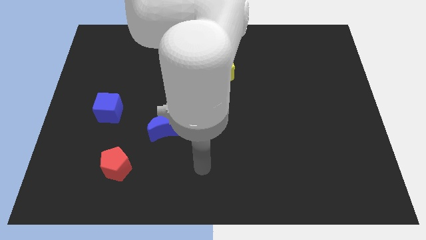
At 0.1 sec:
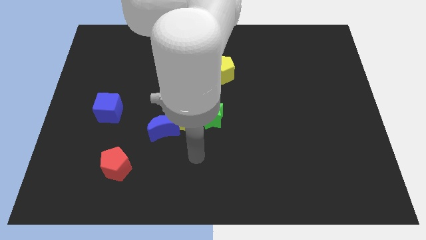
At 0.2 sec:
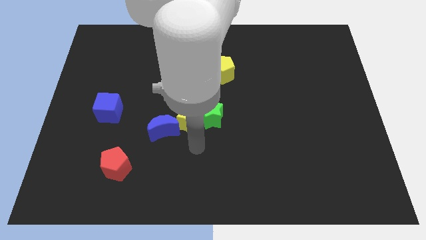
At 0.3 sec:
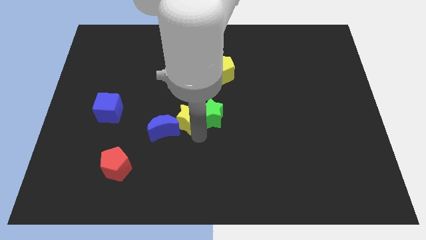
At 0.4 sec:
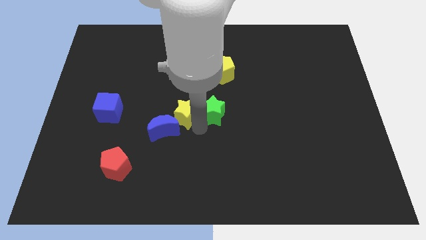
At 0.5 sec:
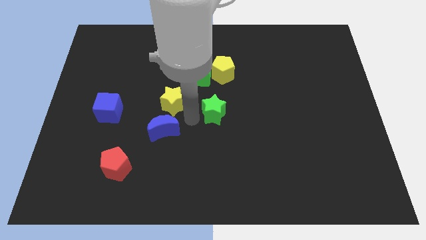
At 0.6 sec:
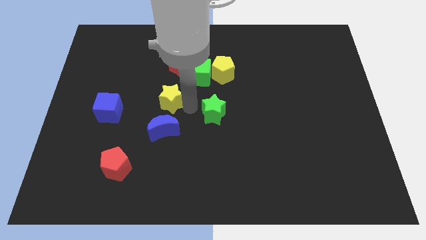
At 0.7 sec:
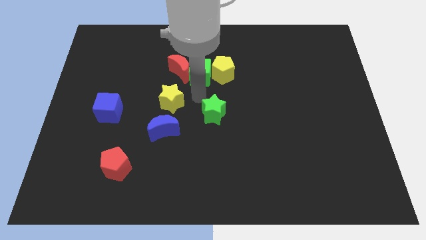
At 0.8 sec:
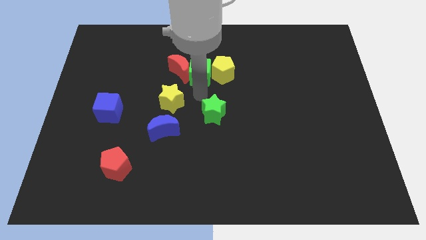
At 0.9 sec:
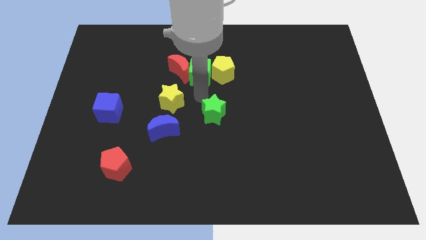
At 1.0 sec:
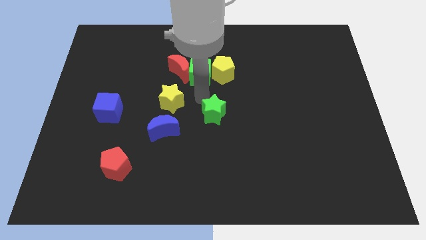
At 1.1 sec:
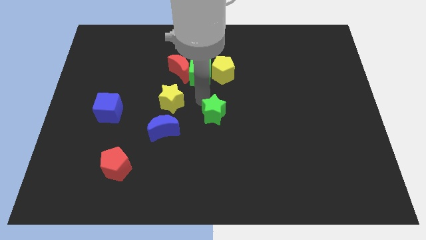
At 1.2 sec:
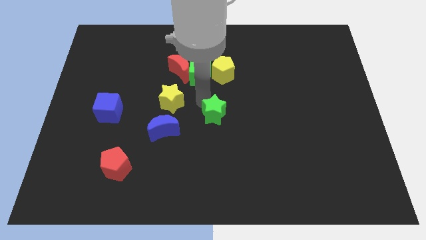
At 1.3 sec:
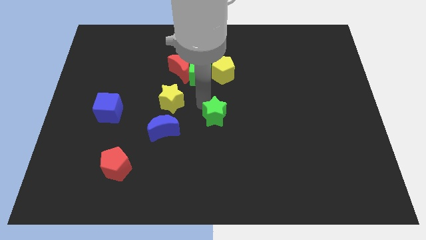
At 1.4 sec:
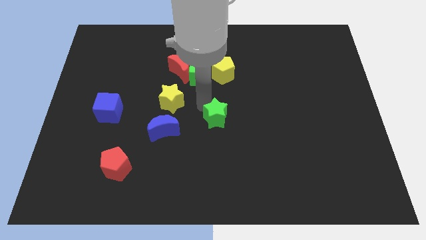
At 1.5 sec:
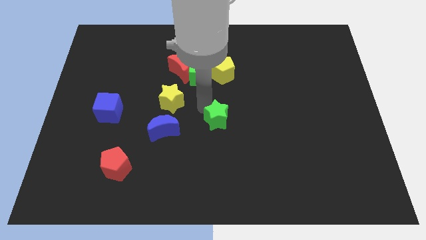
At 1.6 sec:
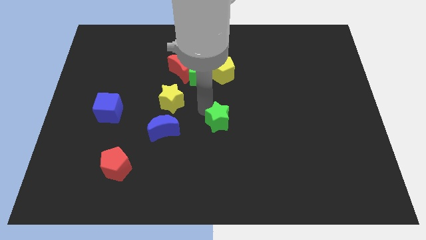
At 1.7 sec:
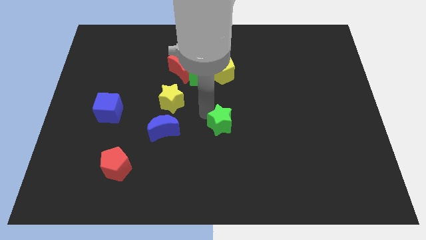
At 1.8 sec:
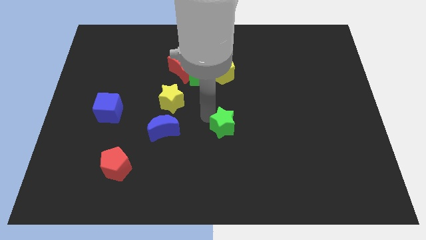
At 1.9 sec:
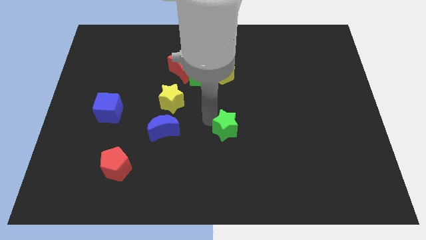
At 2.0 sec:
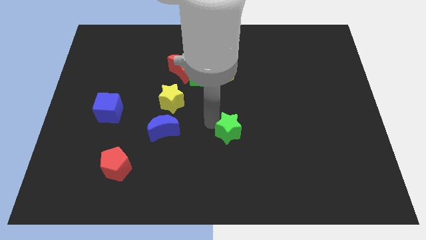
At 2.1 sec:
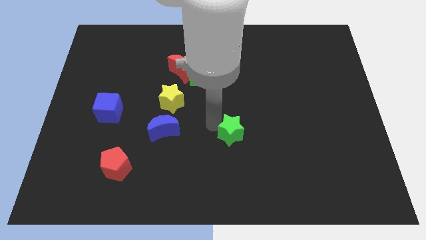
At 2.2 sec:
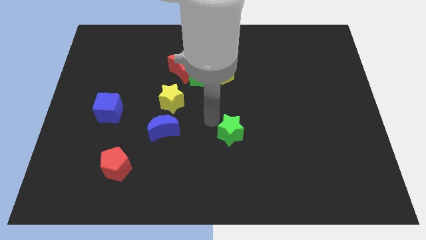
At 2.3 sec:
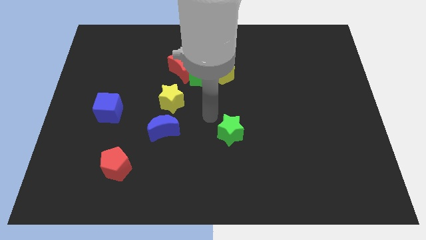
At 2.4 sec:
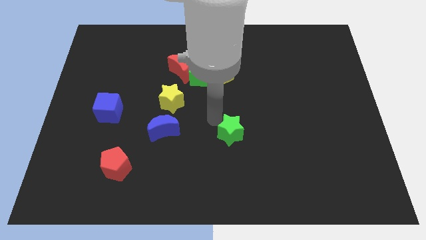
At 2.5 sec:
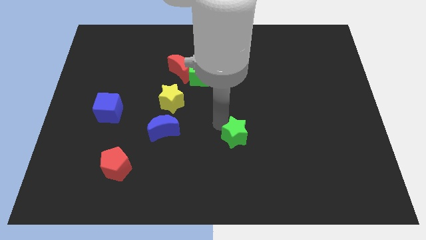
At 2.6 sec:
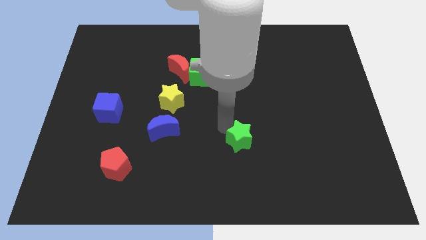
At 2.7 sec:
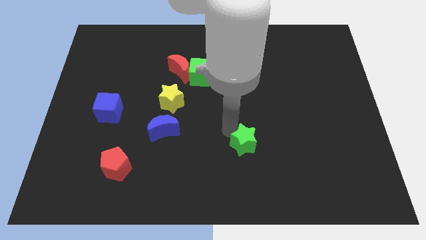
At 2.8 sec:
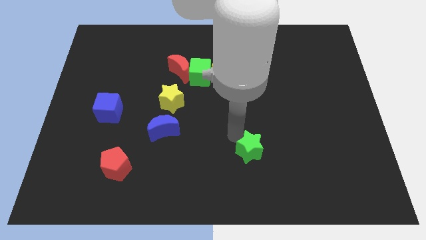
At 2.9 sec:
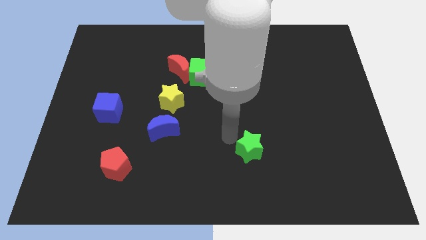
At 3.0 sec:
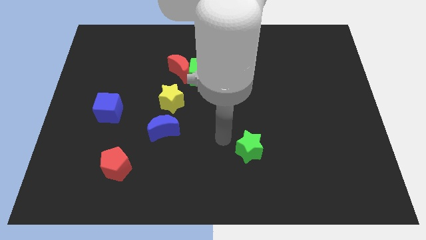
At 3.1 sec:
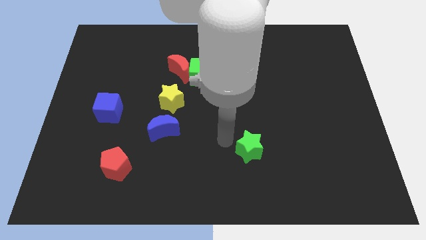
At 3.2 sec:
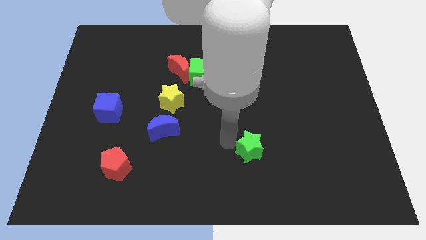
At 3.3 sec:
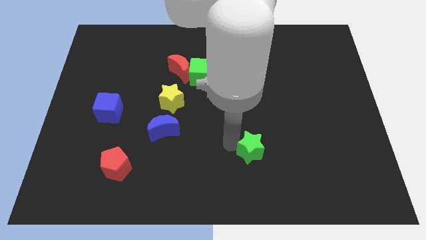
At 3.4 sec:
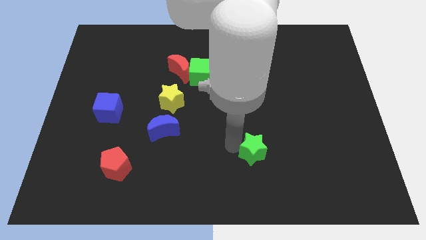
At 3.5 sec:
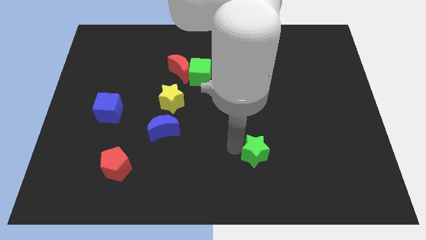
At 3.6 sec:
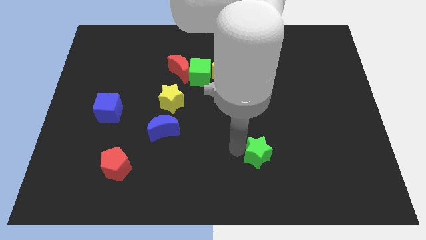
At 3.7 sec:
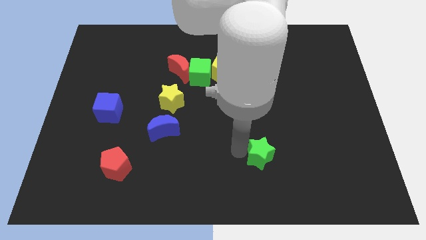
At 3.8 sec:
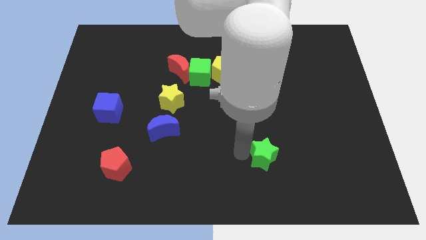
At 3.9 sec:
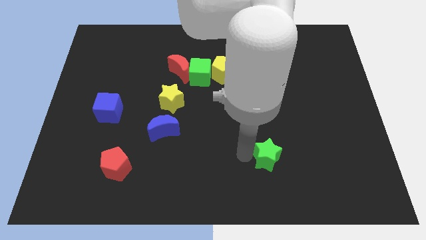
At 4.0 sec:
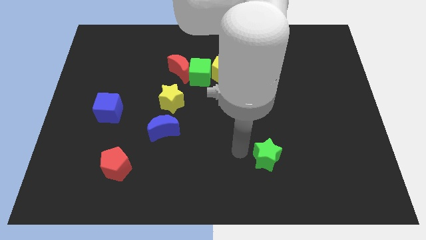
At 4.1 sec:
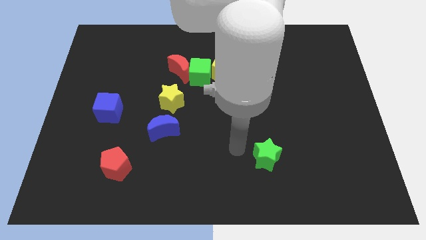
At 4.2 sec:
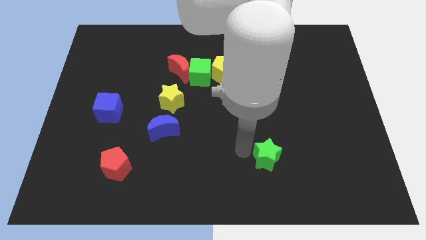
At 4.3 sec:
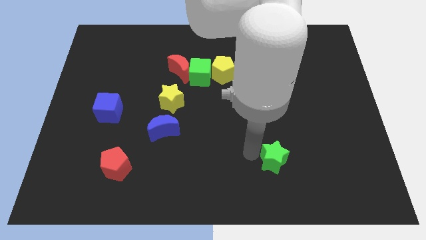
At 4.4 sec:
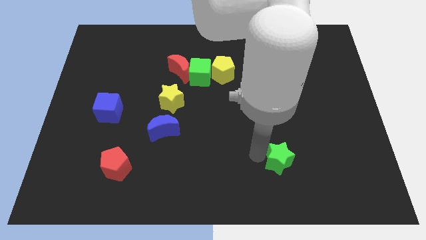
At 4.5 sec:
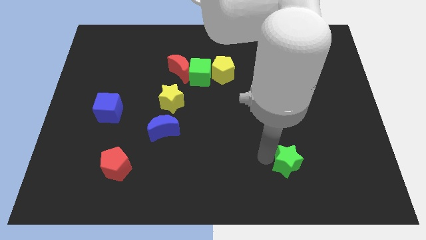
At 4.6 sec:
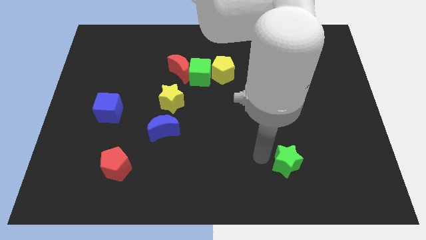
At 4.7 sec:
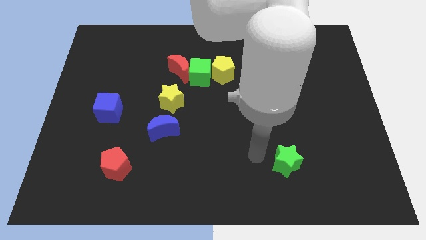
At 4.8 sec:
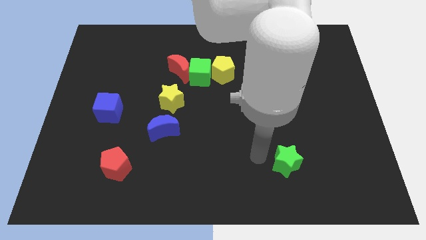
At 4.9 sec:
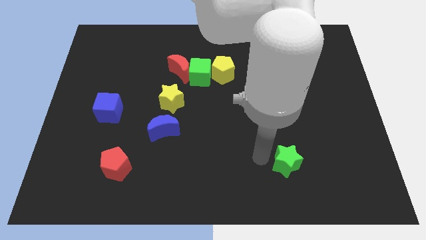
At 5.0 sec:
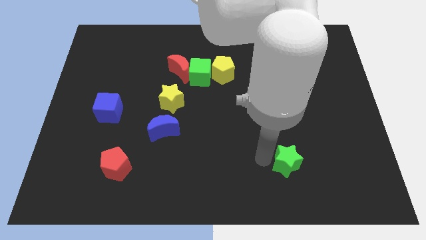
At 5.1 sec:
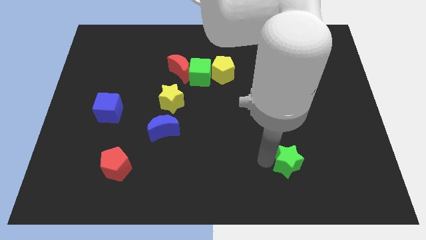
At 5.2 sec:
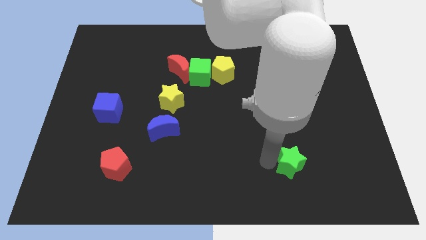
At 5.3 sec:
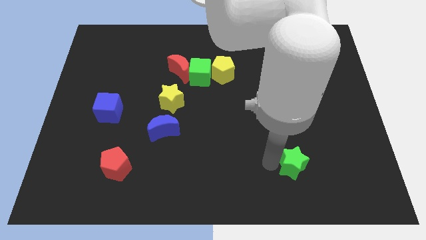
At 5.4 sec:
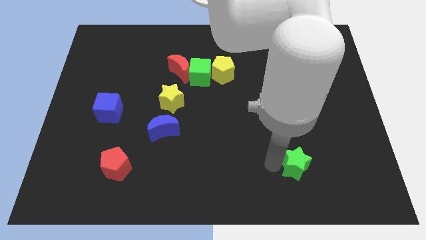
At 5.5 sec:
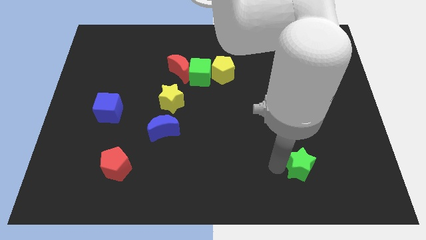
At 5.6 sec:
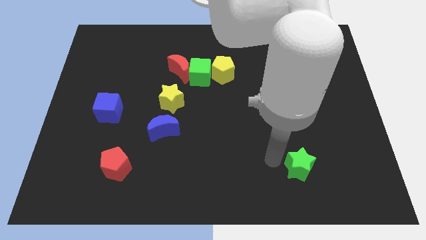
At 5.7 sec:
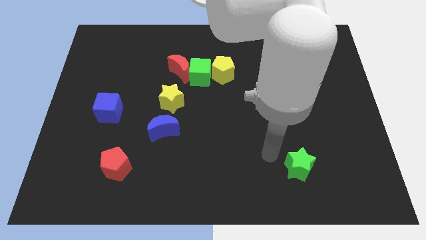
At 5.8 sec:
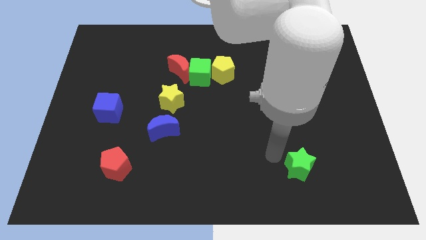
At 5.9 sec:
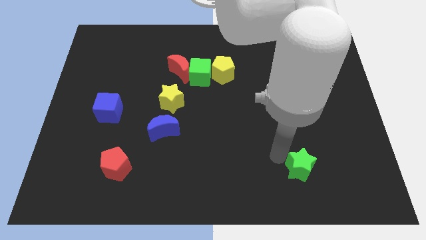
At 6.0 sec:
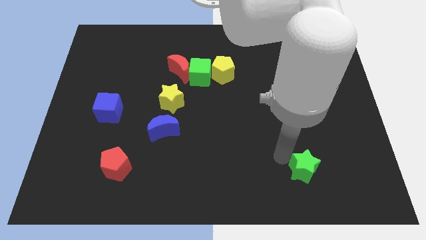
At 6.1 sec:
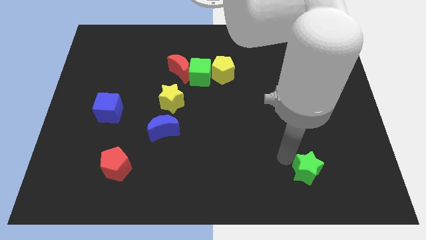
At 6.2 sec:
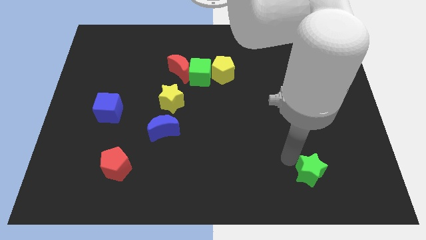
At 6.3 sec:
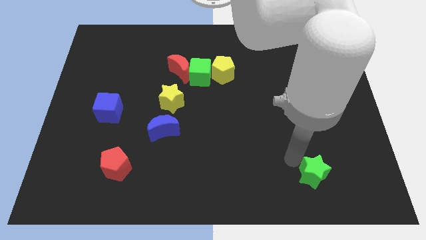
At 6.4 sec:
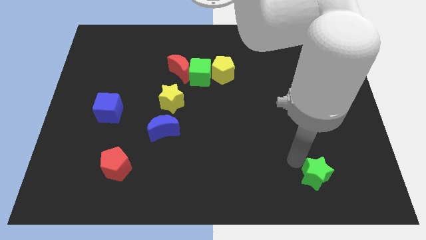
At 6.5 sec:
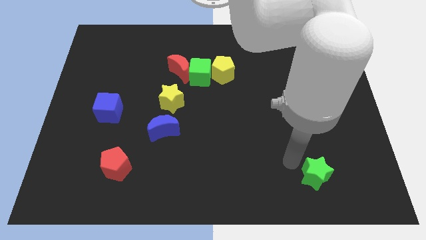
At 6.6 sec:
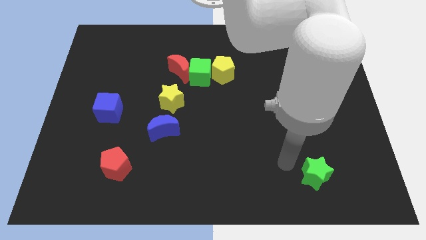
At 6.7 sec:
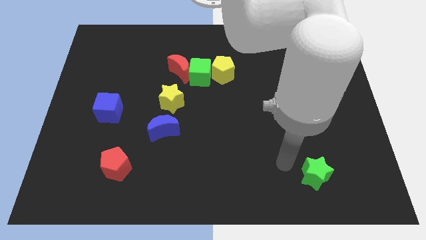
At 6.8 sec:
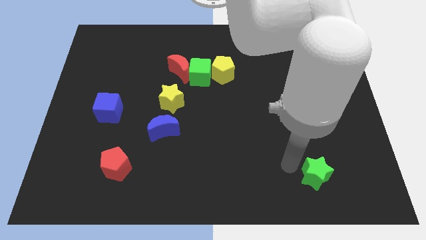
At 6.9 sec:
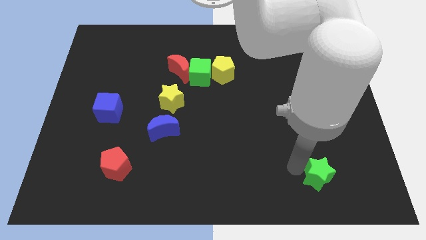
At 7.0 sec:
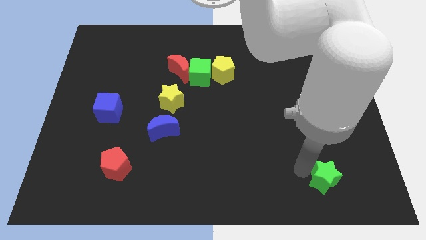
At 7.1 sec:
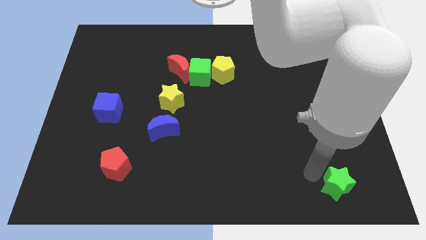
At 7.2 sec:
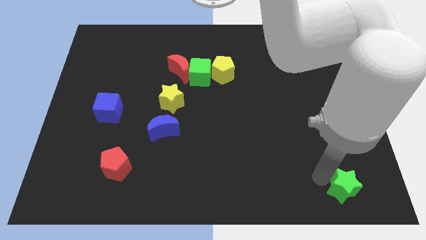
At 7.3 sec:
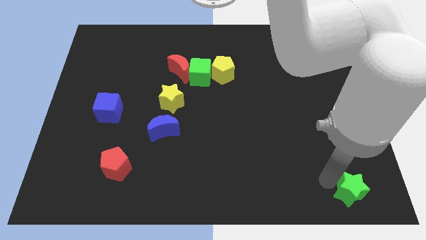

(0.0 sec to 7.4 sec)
push the green star to the lower right corner

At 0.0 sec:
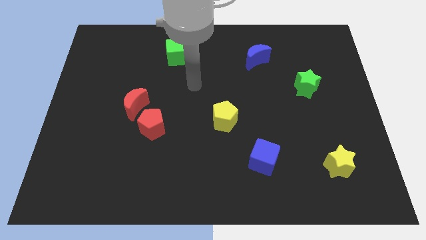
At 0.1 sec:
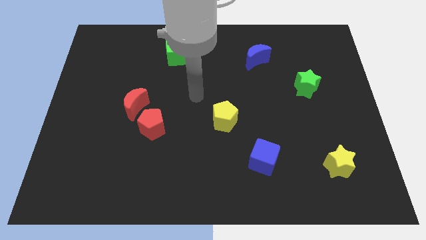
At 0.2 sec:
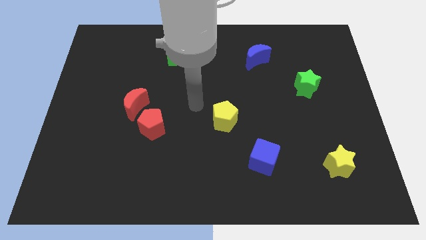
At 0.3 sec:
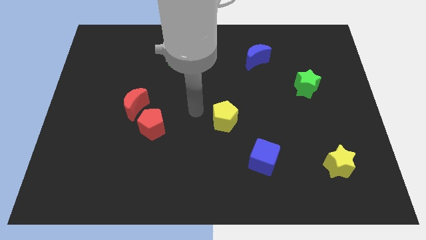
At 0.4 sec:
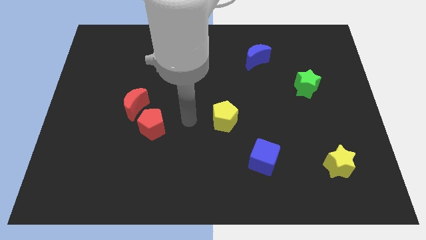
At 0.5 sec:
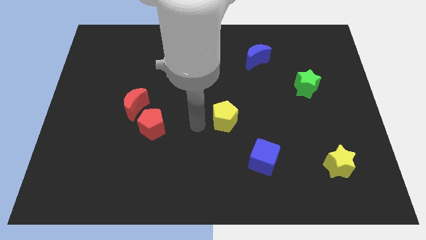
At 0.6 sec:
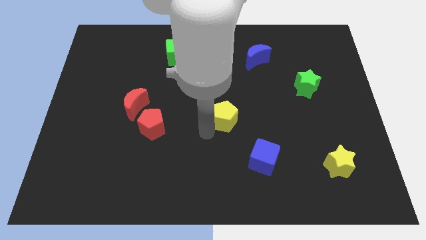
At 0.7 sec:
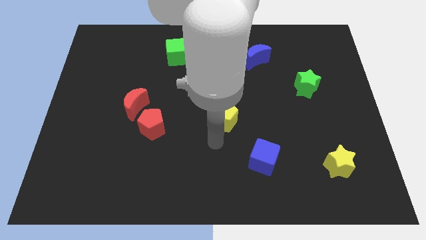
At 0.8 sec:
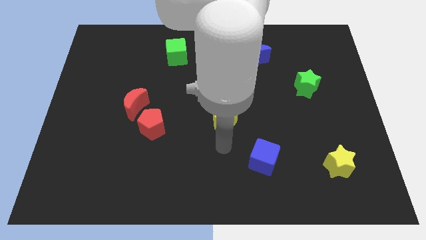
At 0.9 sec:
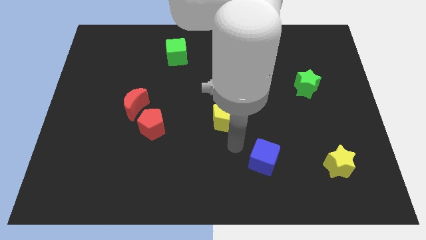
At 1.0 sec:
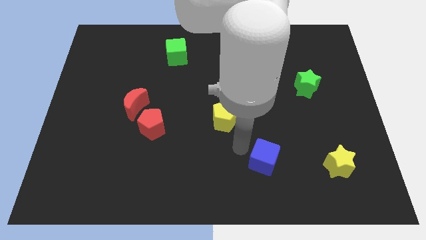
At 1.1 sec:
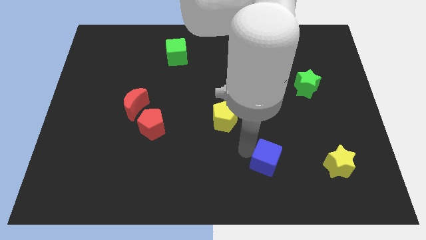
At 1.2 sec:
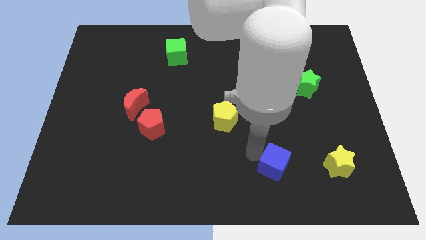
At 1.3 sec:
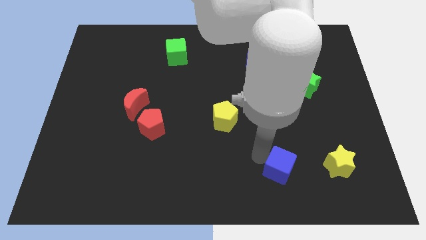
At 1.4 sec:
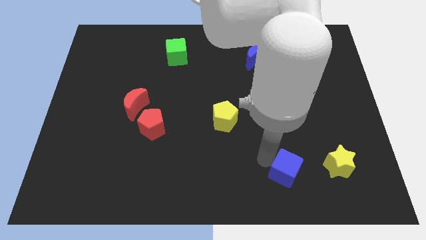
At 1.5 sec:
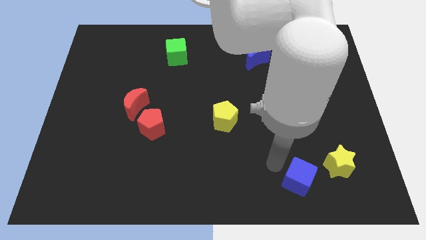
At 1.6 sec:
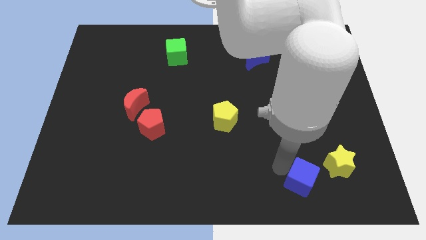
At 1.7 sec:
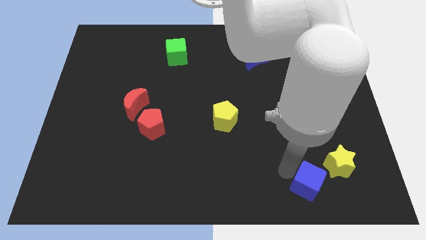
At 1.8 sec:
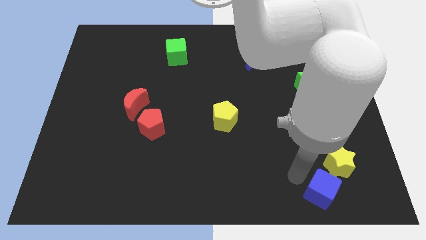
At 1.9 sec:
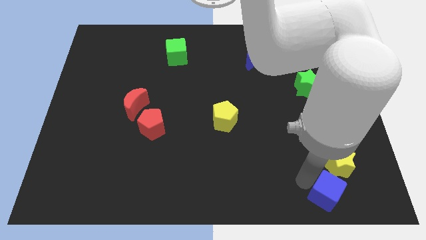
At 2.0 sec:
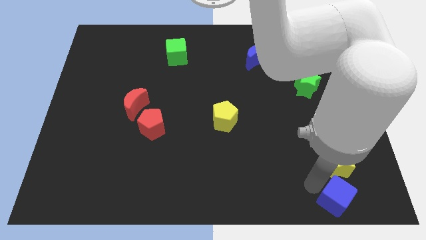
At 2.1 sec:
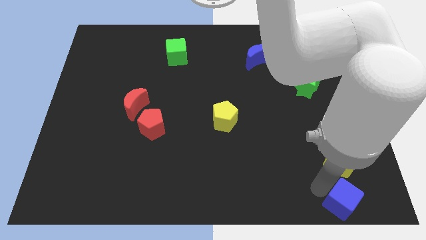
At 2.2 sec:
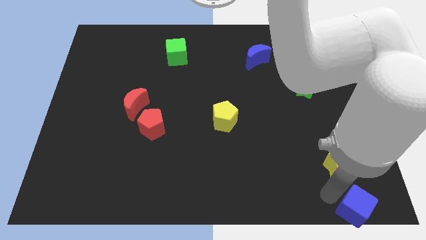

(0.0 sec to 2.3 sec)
slide the blue cube to the bottom right of the board
